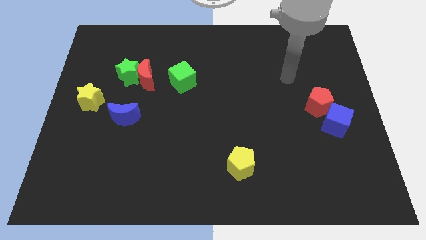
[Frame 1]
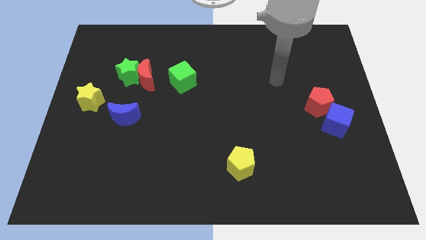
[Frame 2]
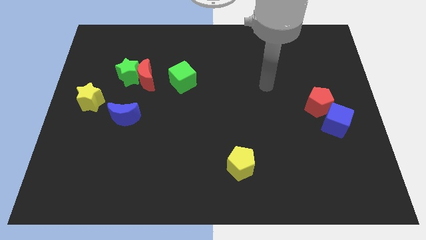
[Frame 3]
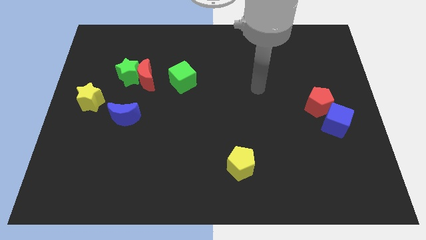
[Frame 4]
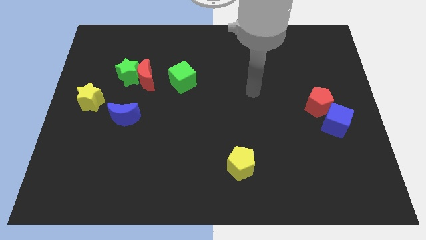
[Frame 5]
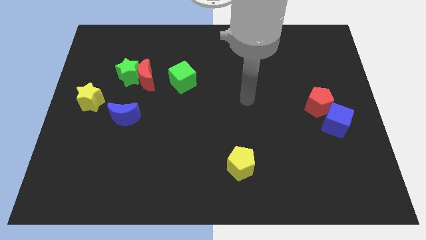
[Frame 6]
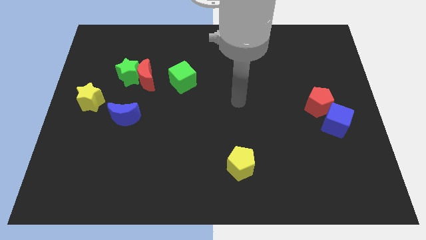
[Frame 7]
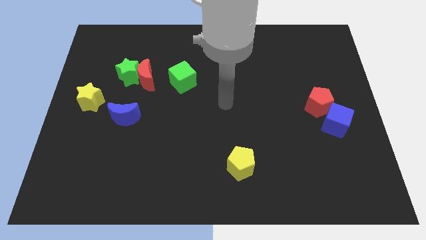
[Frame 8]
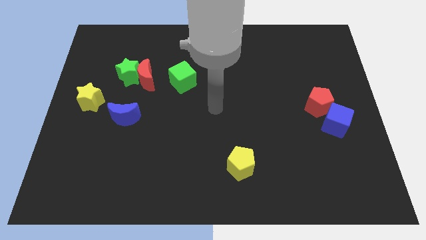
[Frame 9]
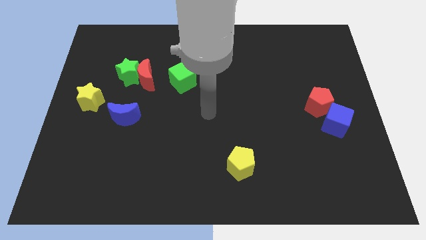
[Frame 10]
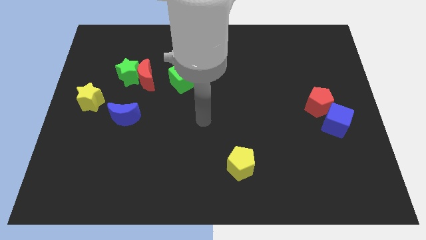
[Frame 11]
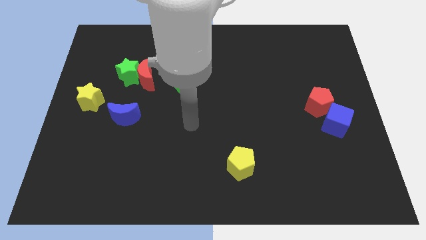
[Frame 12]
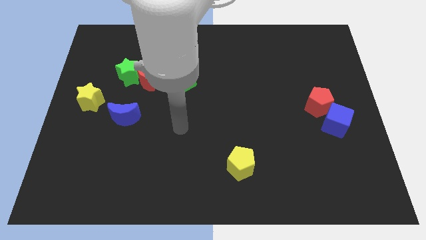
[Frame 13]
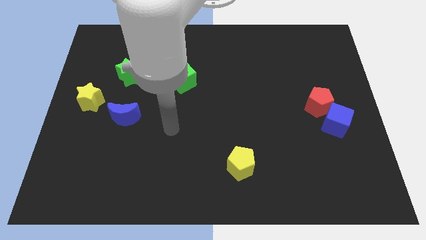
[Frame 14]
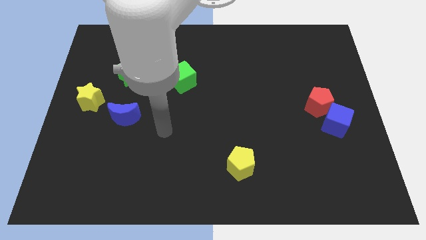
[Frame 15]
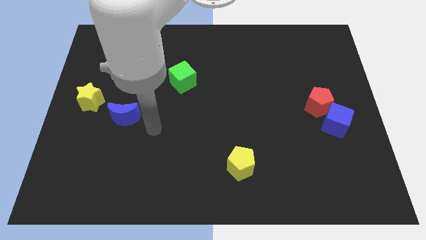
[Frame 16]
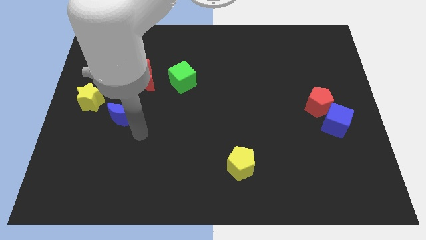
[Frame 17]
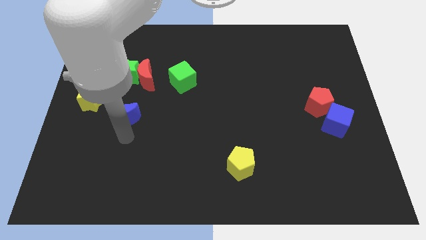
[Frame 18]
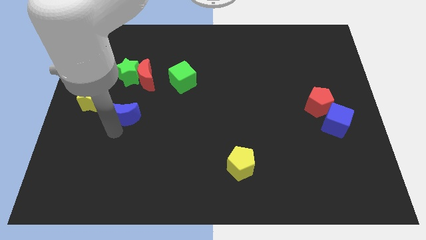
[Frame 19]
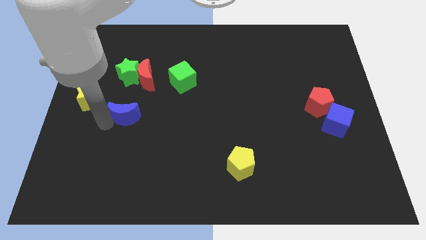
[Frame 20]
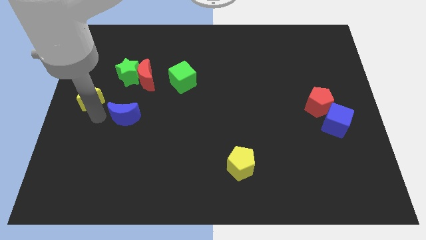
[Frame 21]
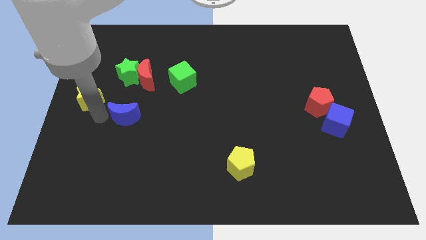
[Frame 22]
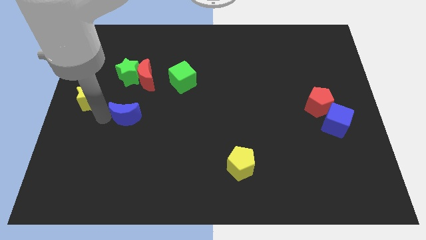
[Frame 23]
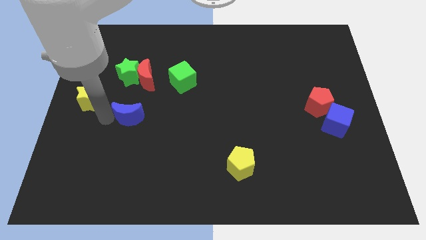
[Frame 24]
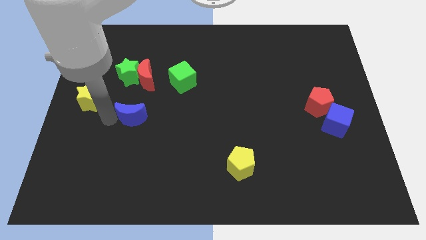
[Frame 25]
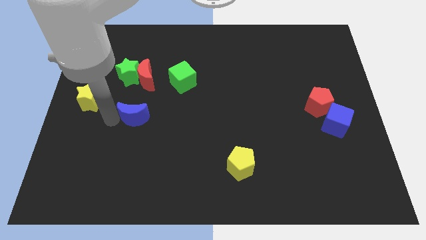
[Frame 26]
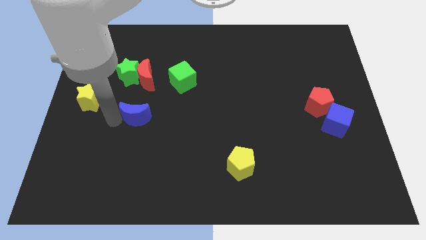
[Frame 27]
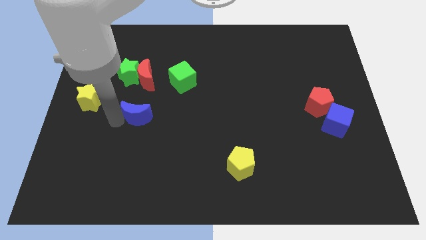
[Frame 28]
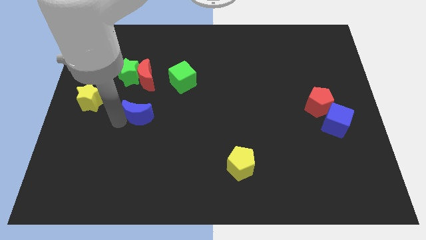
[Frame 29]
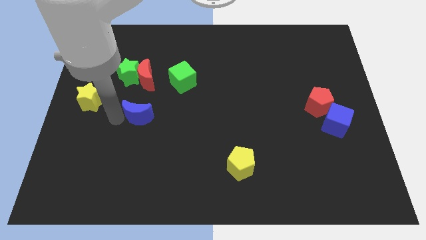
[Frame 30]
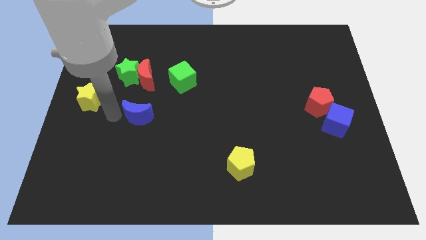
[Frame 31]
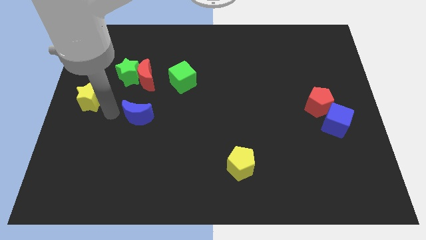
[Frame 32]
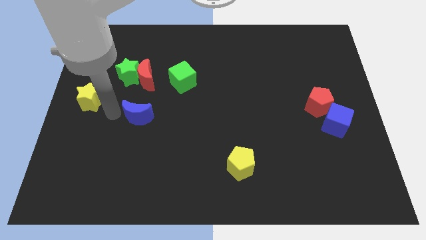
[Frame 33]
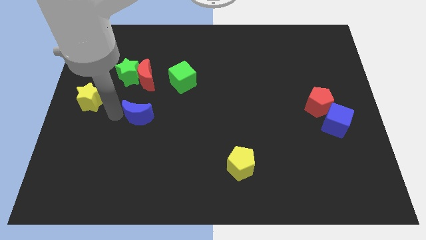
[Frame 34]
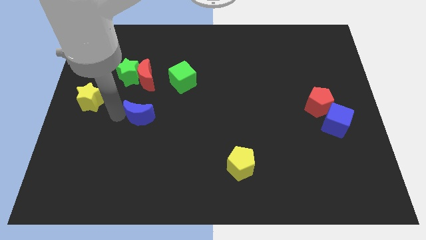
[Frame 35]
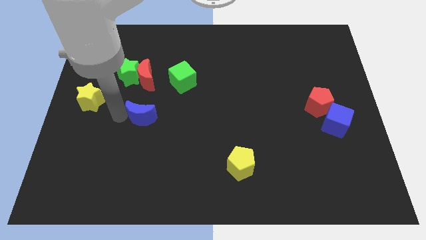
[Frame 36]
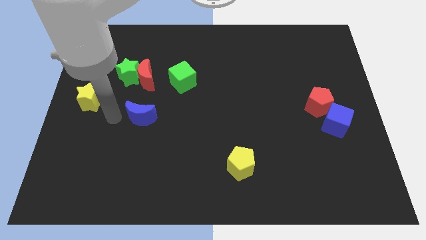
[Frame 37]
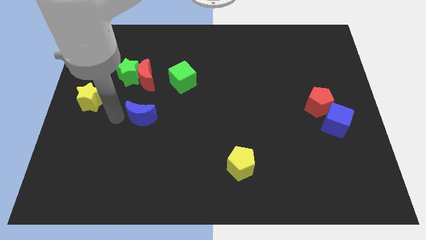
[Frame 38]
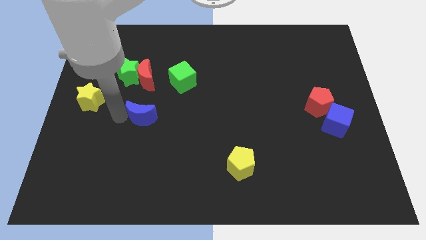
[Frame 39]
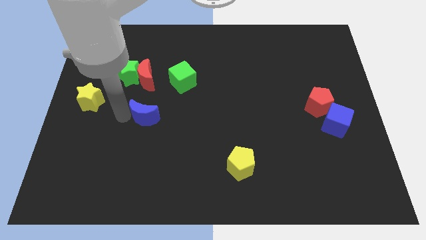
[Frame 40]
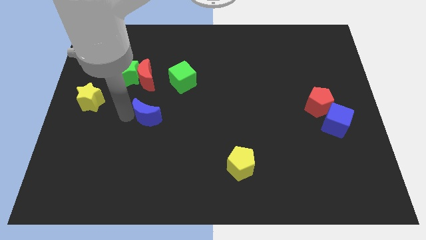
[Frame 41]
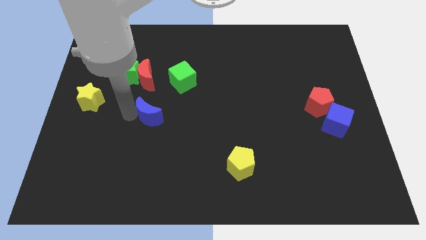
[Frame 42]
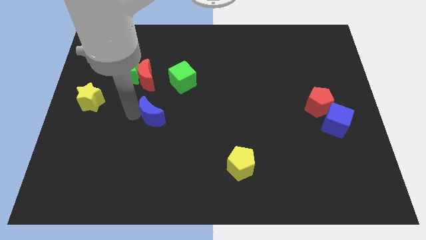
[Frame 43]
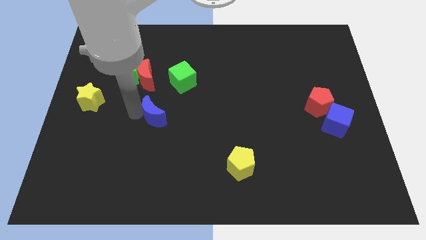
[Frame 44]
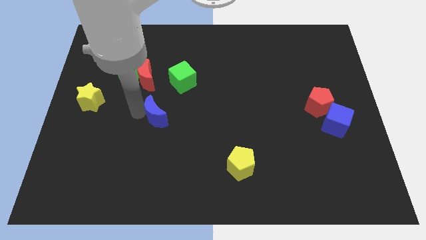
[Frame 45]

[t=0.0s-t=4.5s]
slightly slide the blue moon to the right

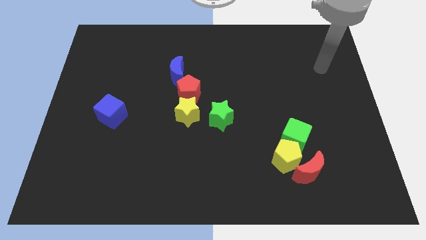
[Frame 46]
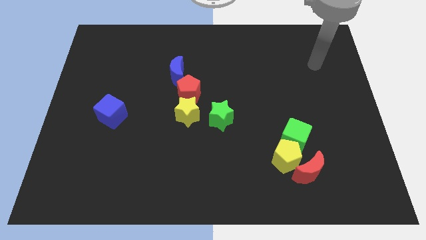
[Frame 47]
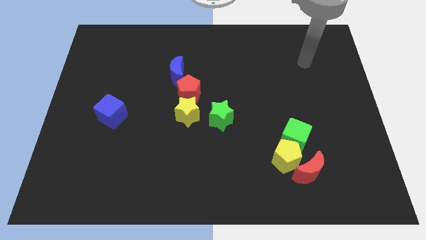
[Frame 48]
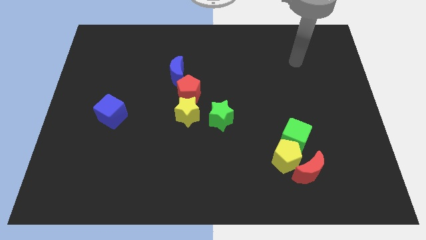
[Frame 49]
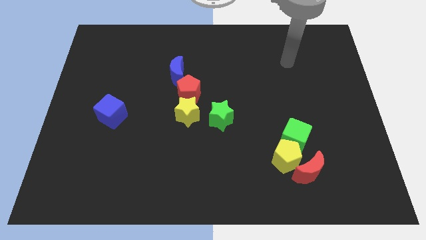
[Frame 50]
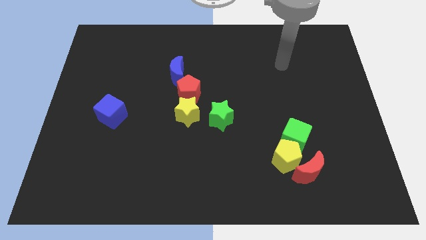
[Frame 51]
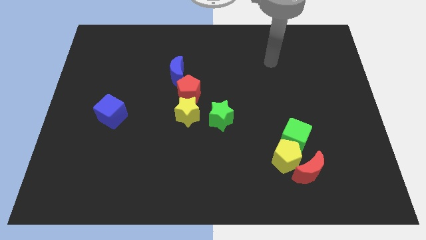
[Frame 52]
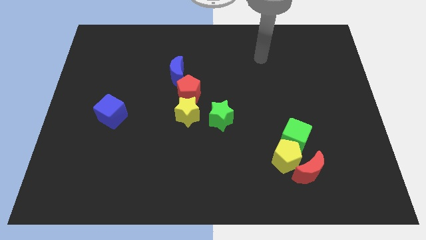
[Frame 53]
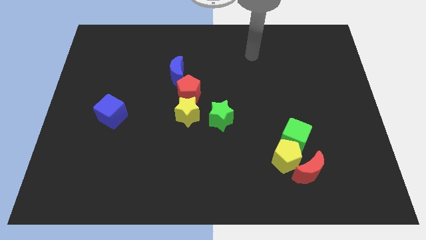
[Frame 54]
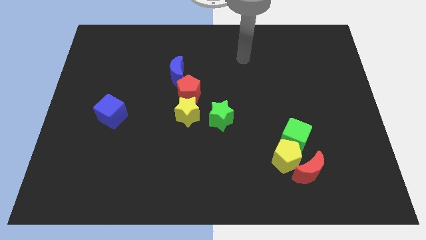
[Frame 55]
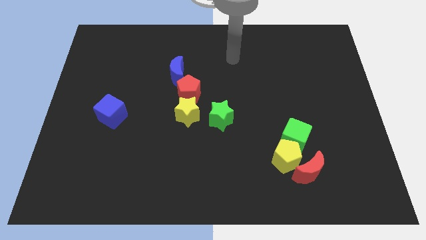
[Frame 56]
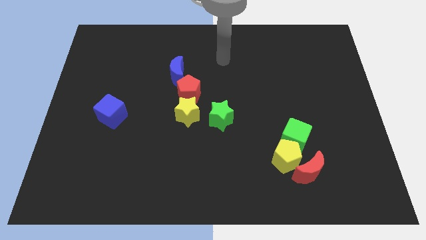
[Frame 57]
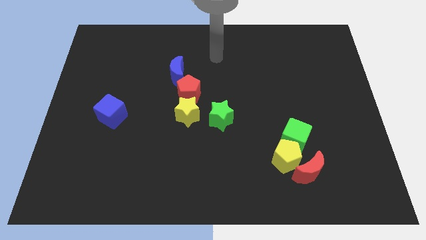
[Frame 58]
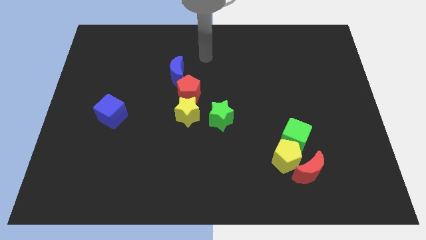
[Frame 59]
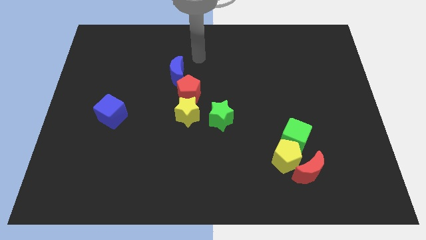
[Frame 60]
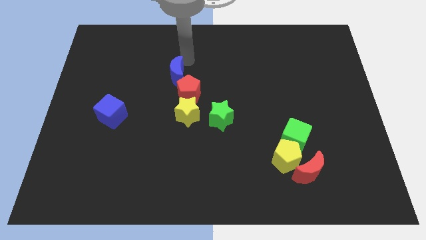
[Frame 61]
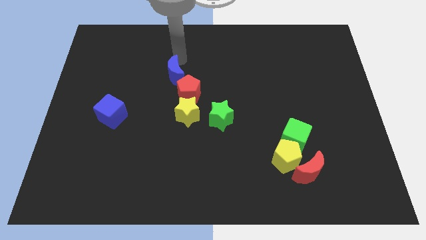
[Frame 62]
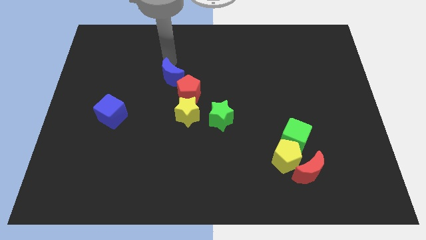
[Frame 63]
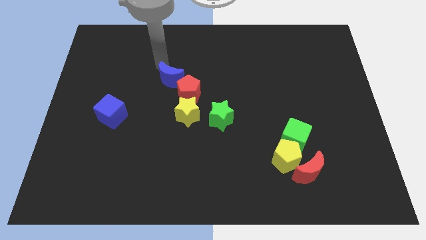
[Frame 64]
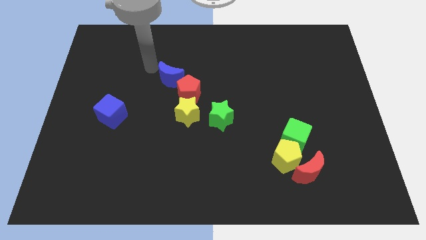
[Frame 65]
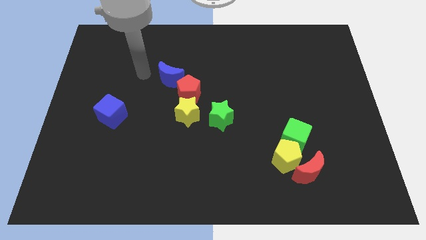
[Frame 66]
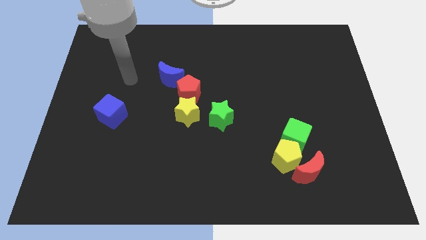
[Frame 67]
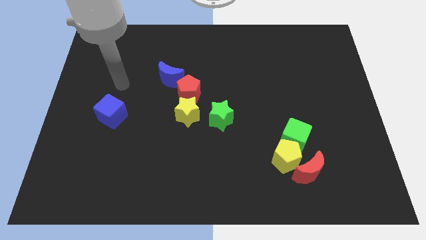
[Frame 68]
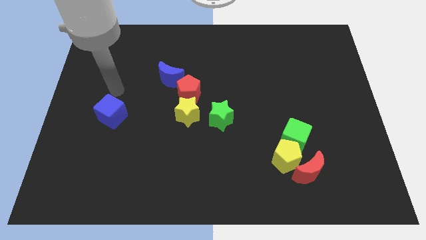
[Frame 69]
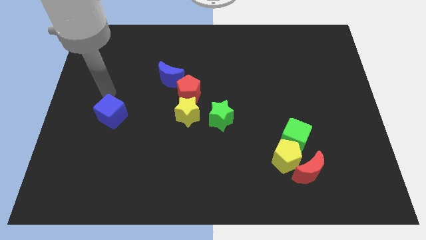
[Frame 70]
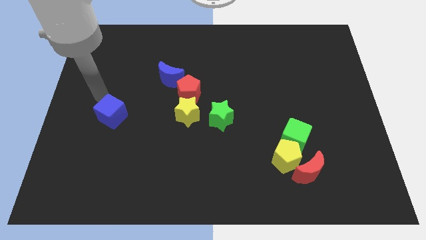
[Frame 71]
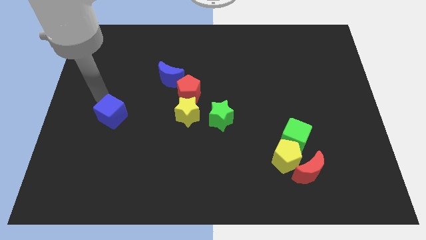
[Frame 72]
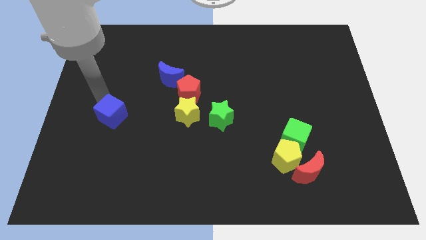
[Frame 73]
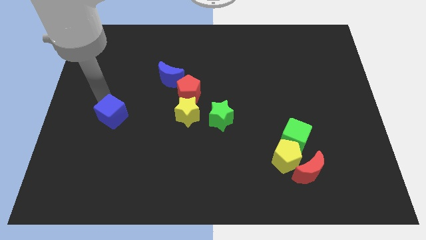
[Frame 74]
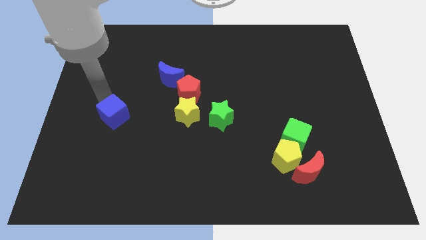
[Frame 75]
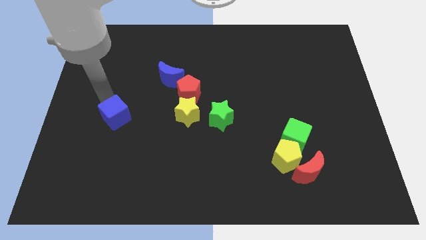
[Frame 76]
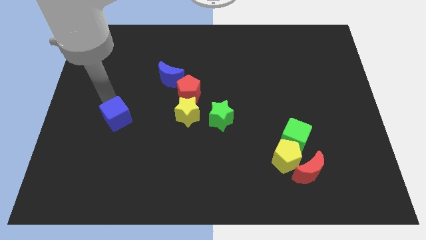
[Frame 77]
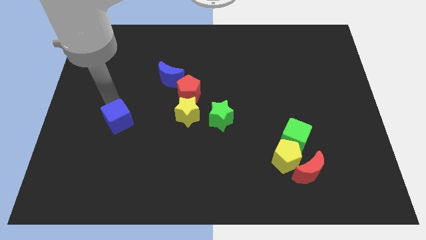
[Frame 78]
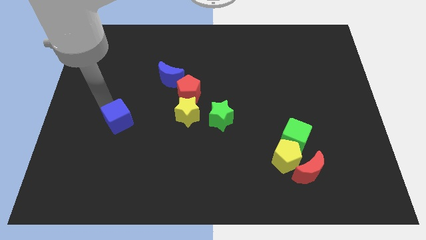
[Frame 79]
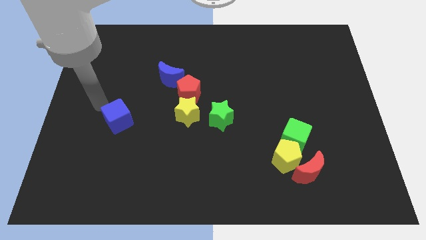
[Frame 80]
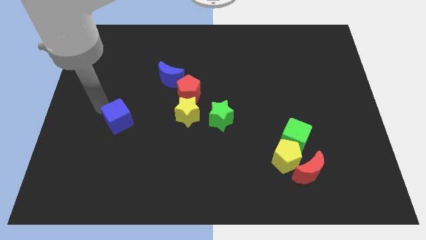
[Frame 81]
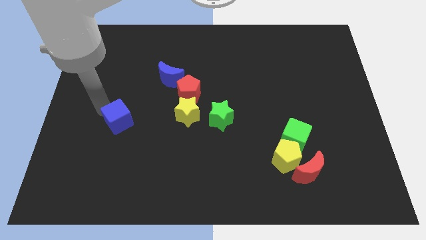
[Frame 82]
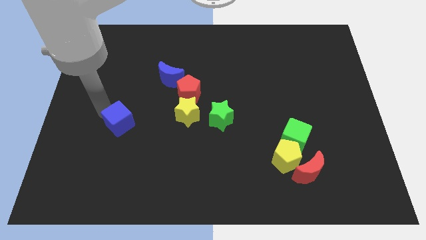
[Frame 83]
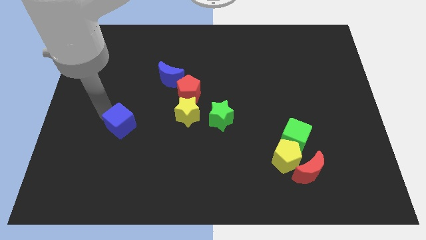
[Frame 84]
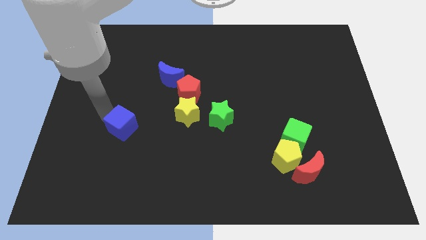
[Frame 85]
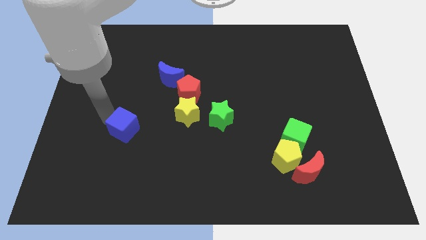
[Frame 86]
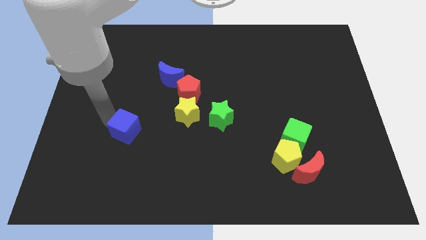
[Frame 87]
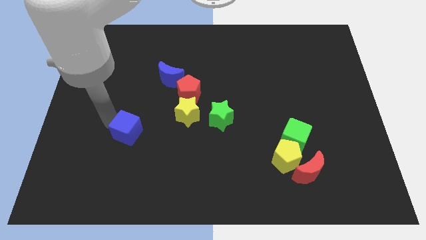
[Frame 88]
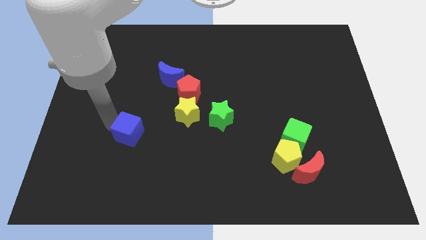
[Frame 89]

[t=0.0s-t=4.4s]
slide the blue cube a little diagonally down and right
